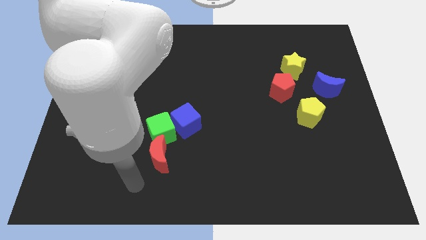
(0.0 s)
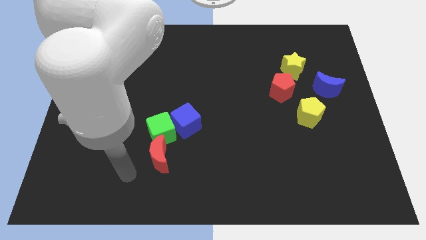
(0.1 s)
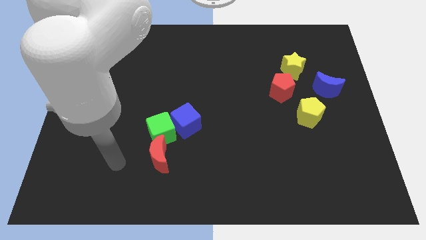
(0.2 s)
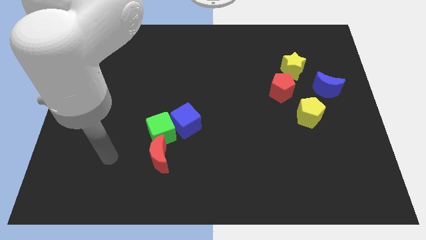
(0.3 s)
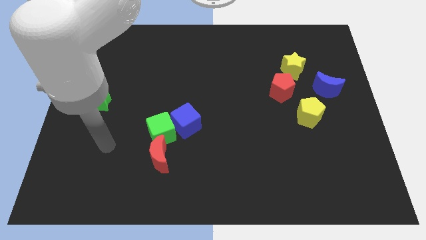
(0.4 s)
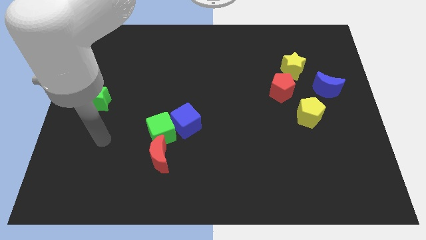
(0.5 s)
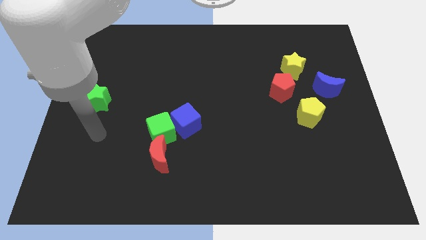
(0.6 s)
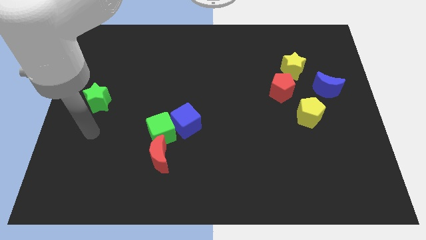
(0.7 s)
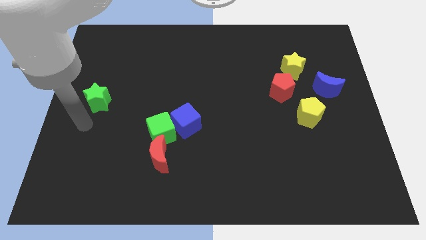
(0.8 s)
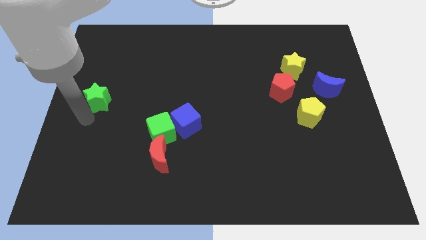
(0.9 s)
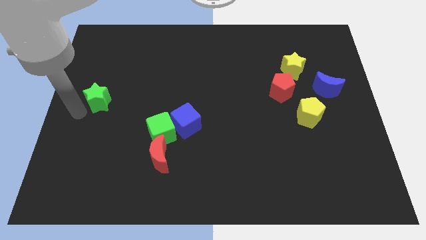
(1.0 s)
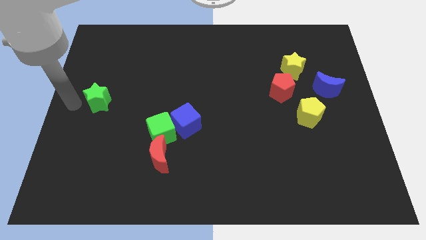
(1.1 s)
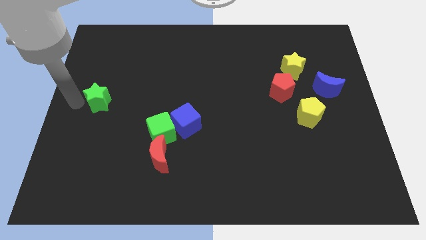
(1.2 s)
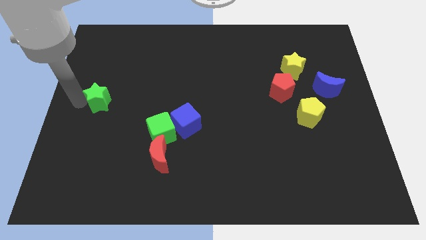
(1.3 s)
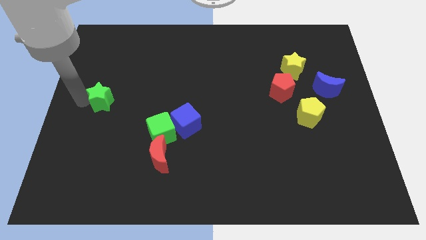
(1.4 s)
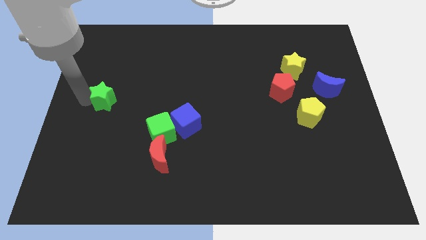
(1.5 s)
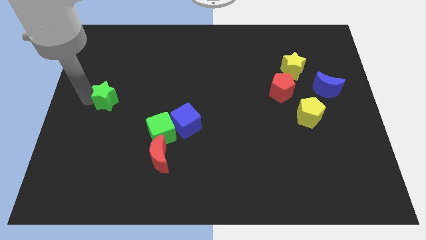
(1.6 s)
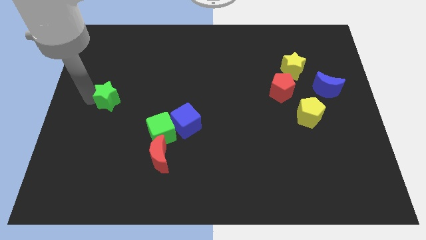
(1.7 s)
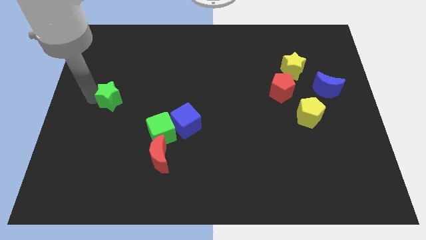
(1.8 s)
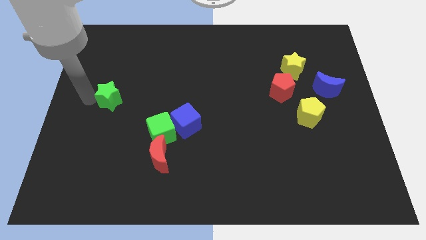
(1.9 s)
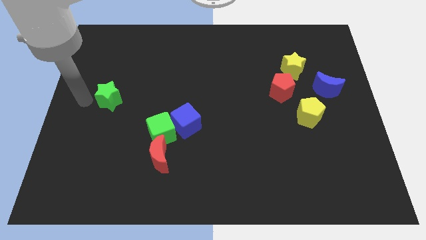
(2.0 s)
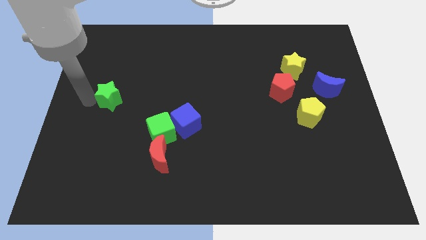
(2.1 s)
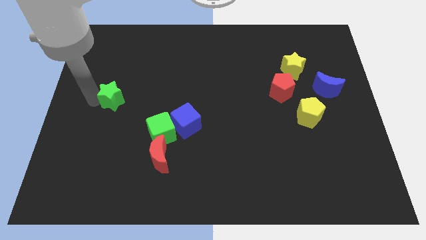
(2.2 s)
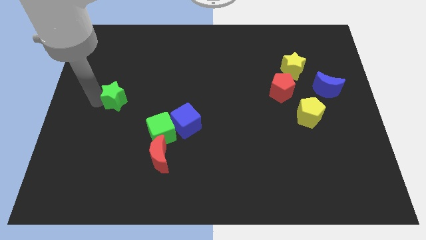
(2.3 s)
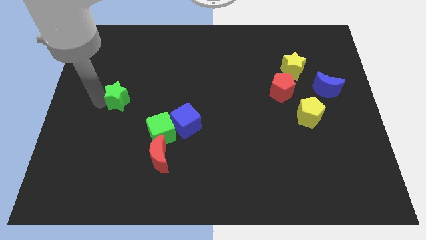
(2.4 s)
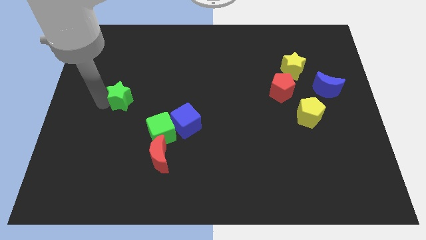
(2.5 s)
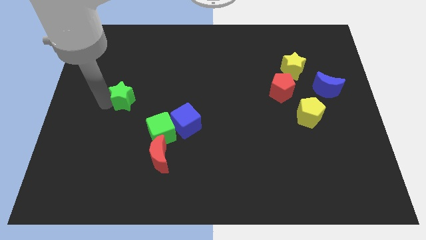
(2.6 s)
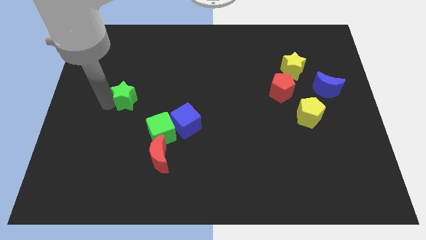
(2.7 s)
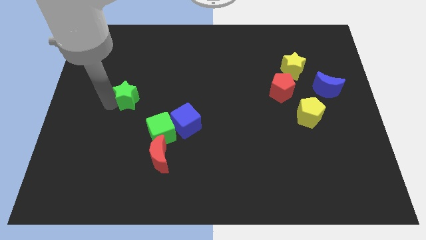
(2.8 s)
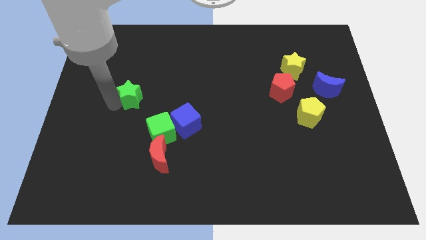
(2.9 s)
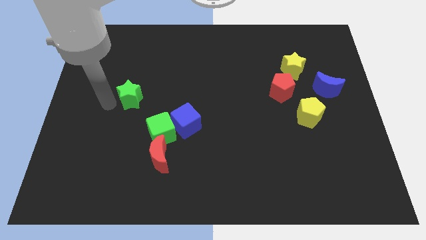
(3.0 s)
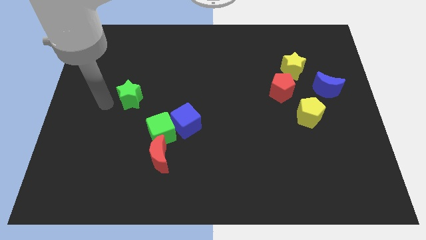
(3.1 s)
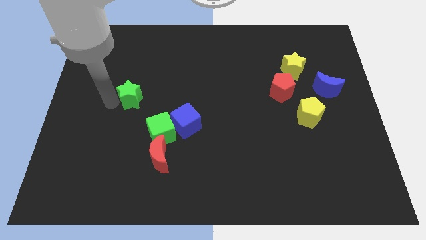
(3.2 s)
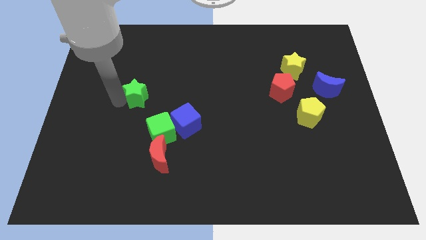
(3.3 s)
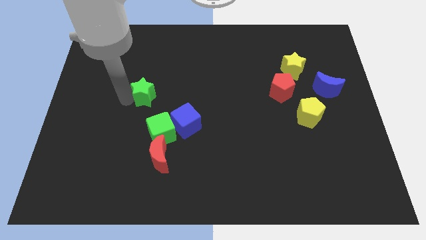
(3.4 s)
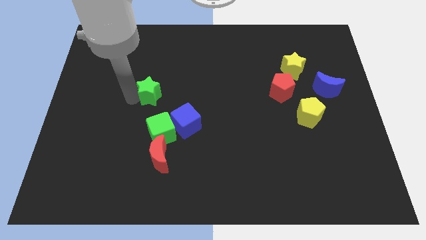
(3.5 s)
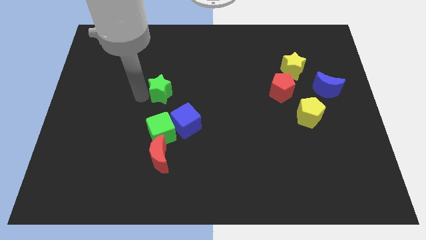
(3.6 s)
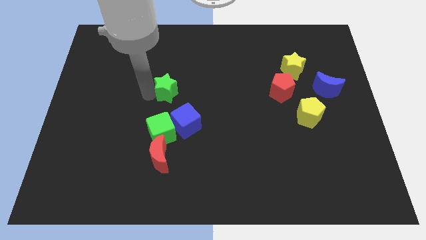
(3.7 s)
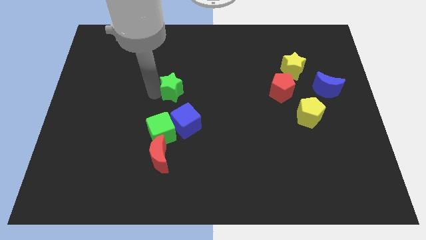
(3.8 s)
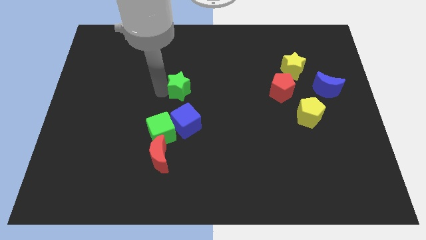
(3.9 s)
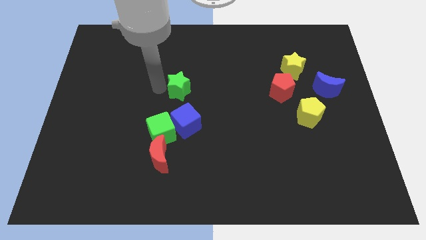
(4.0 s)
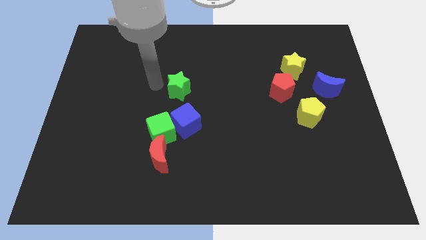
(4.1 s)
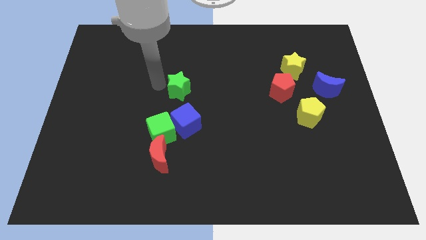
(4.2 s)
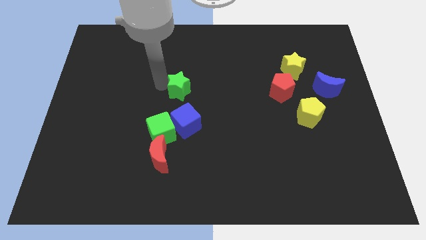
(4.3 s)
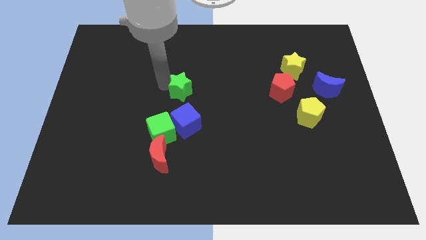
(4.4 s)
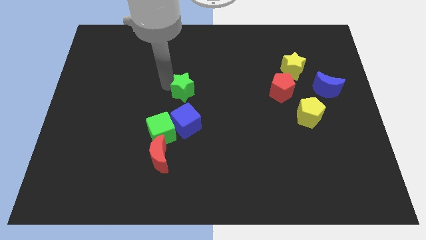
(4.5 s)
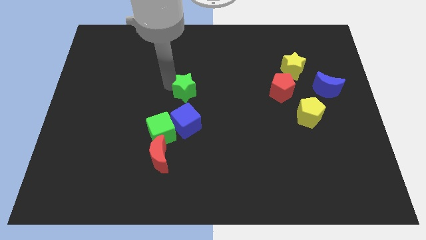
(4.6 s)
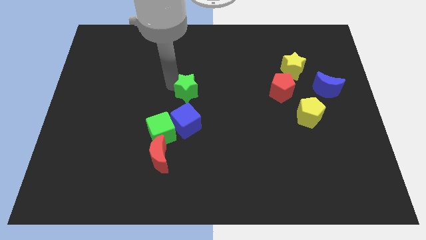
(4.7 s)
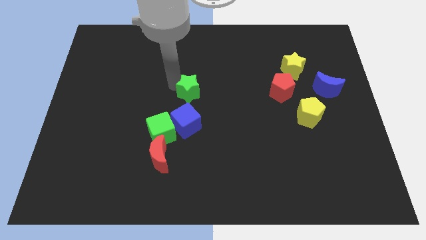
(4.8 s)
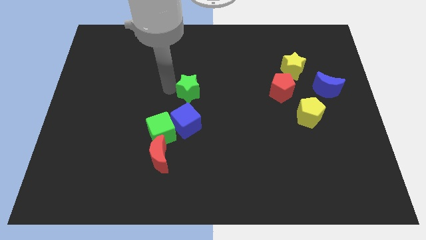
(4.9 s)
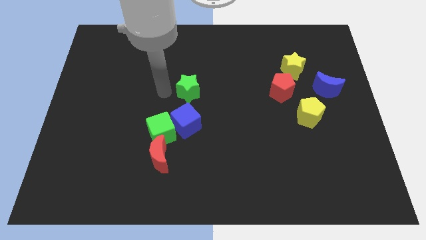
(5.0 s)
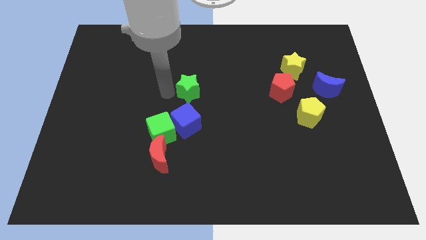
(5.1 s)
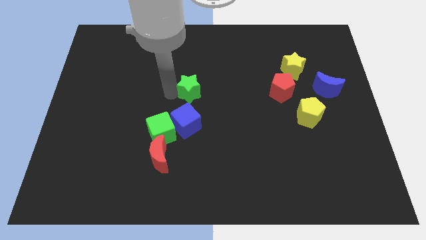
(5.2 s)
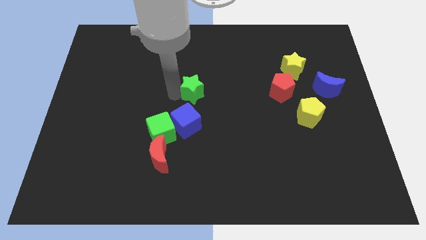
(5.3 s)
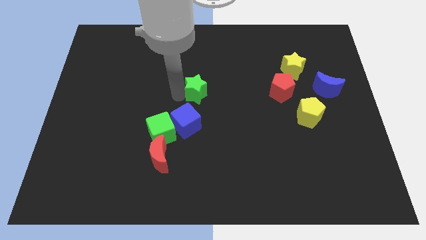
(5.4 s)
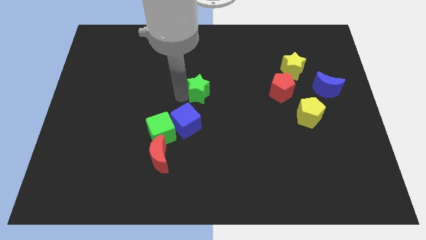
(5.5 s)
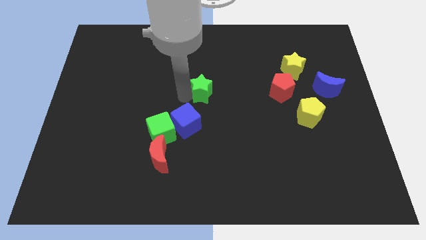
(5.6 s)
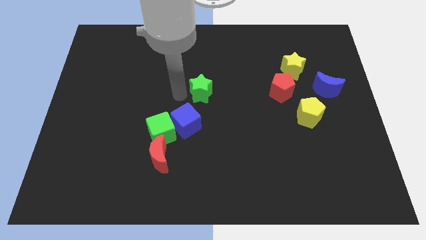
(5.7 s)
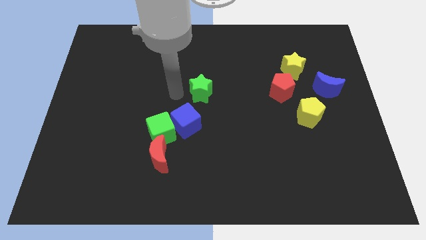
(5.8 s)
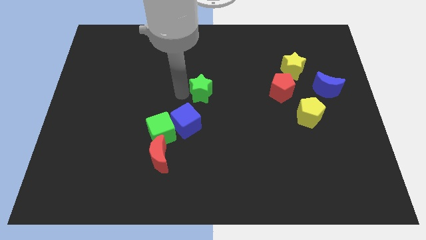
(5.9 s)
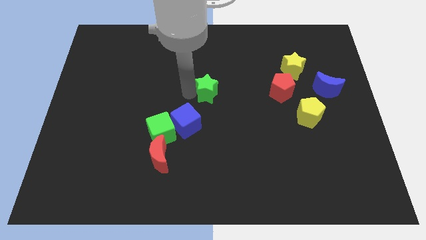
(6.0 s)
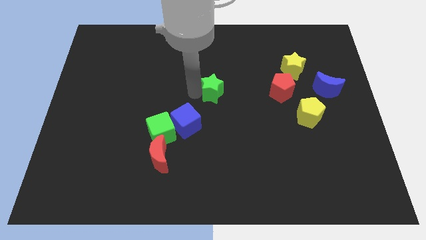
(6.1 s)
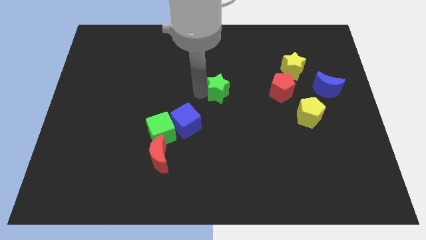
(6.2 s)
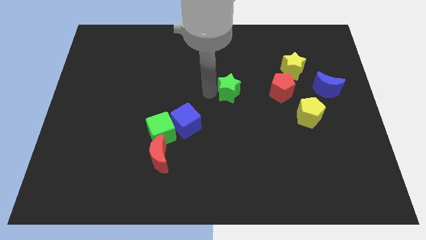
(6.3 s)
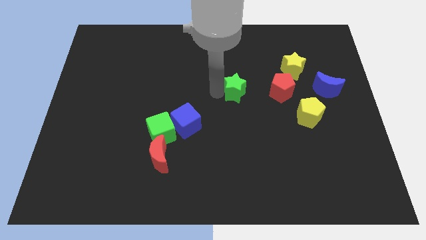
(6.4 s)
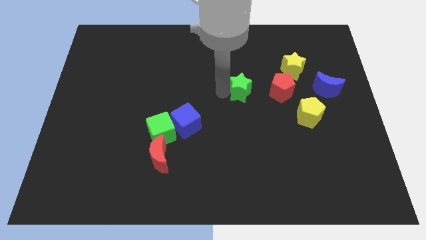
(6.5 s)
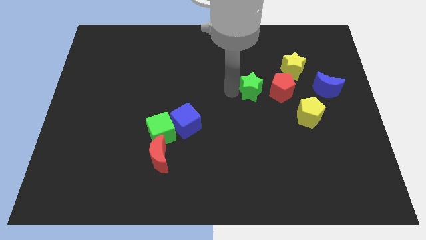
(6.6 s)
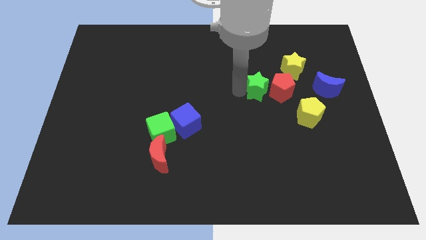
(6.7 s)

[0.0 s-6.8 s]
put the green star close to the red pentagon

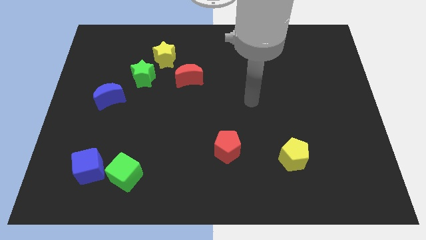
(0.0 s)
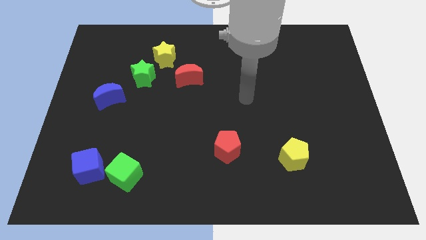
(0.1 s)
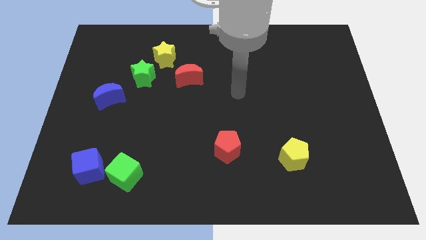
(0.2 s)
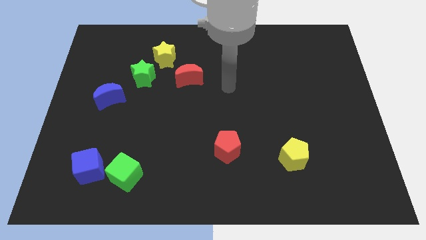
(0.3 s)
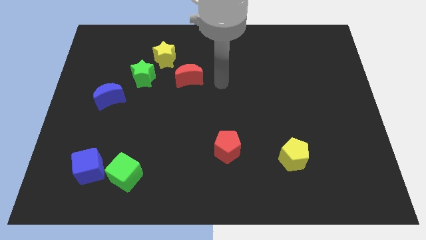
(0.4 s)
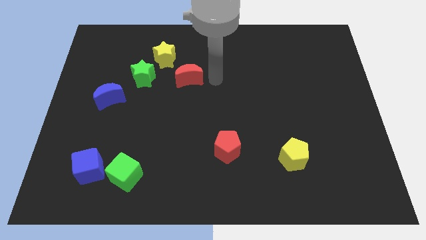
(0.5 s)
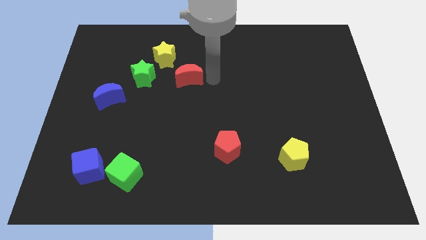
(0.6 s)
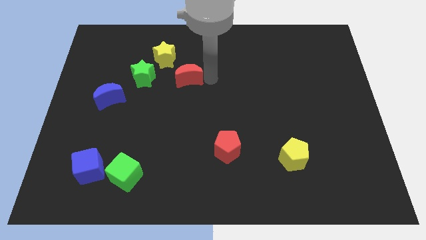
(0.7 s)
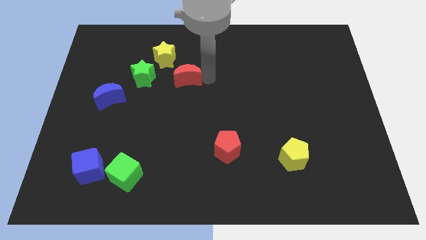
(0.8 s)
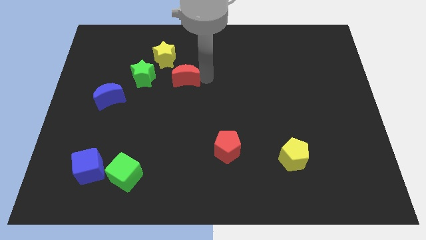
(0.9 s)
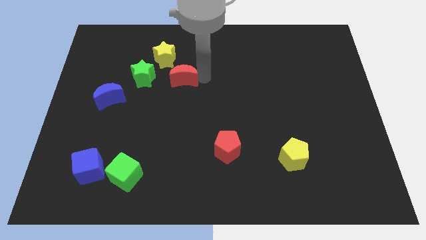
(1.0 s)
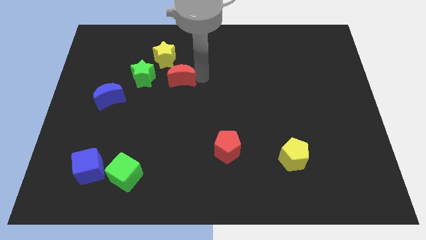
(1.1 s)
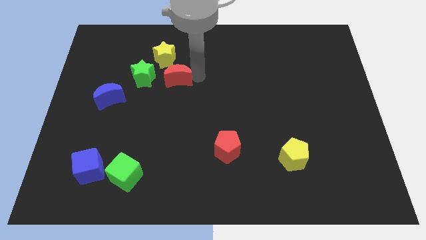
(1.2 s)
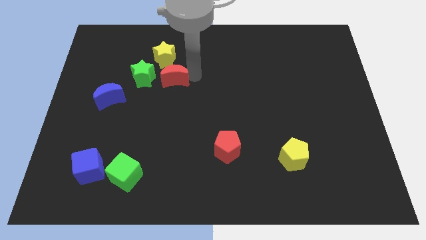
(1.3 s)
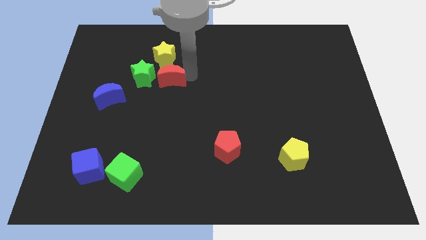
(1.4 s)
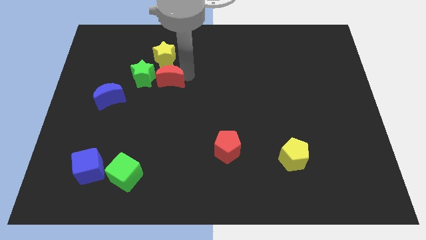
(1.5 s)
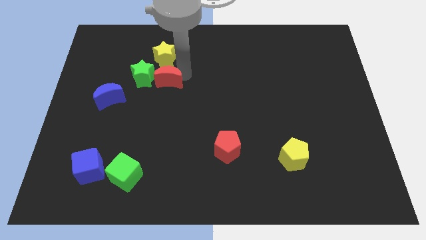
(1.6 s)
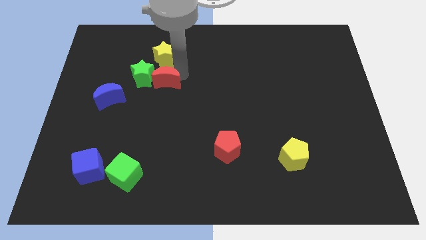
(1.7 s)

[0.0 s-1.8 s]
push the red moon next to the green star
